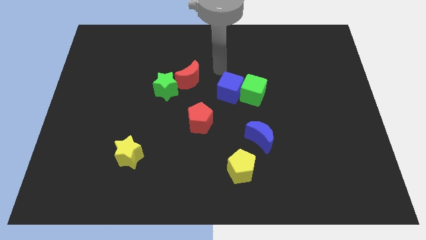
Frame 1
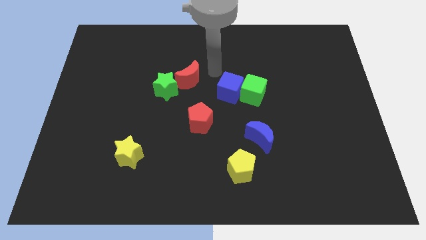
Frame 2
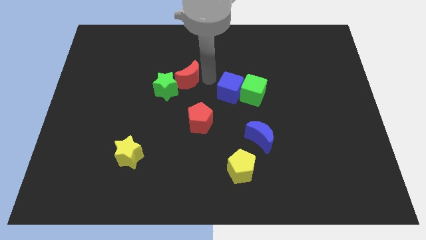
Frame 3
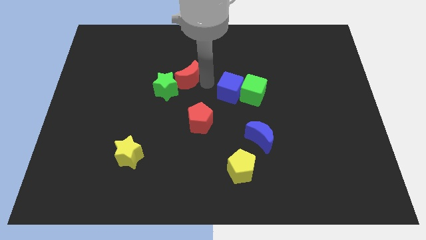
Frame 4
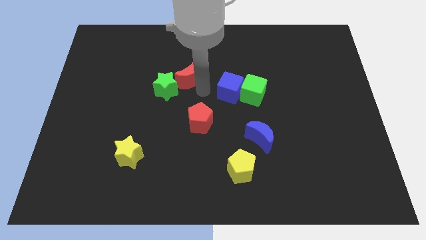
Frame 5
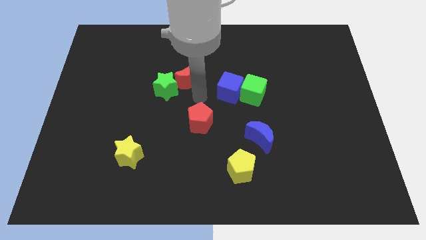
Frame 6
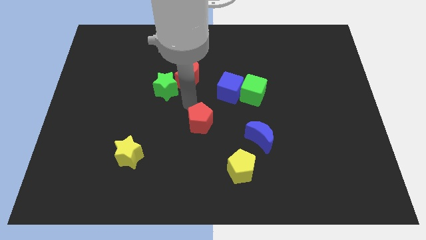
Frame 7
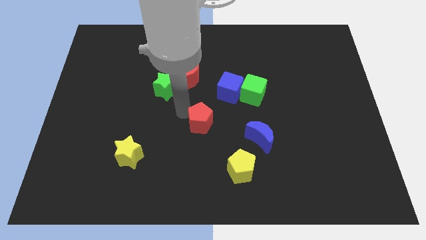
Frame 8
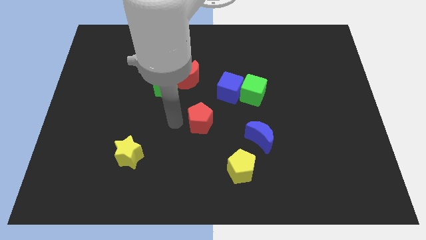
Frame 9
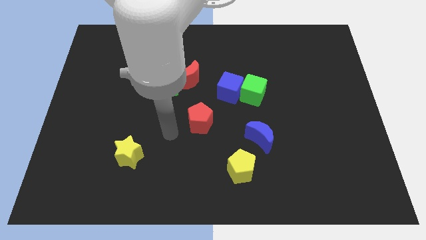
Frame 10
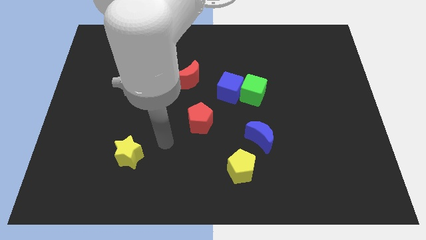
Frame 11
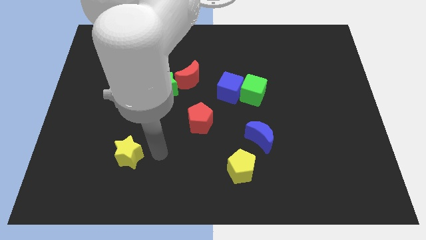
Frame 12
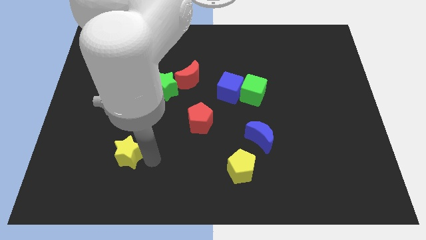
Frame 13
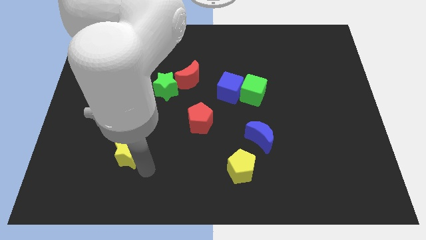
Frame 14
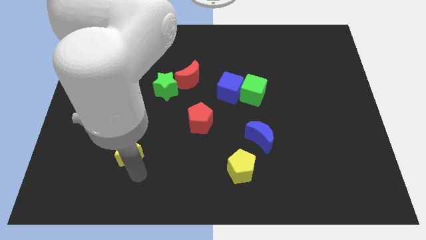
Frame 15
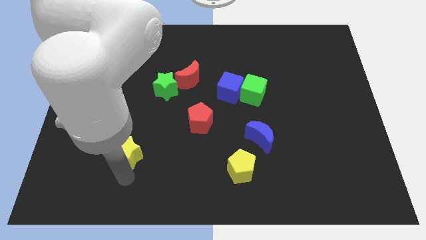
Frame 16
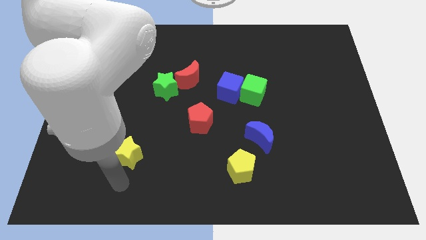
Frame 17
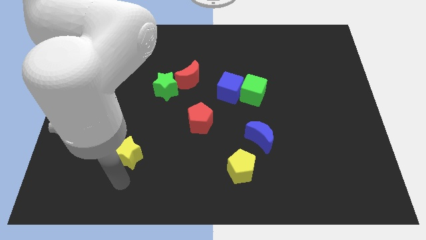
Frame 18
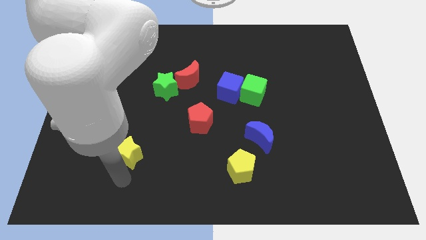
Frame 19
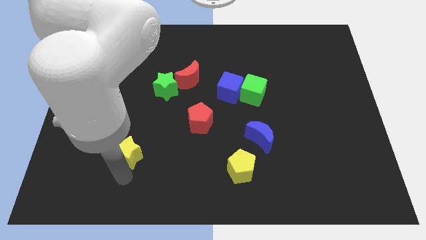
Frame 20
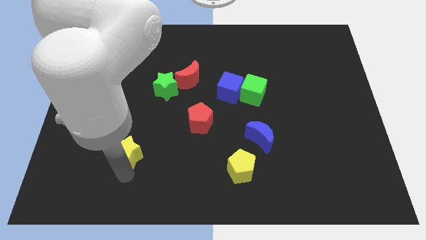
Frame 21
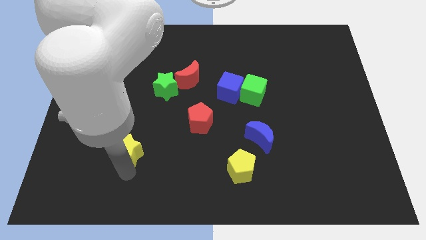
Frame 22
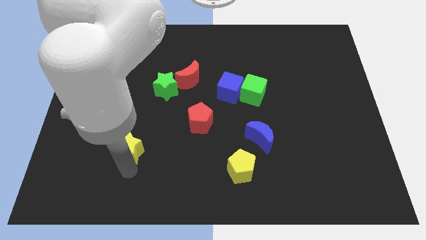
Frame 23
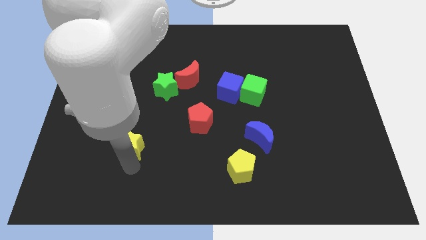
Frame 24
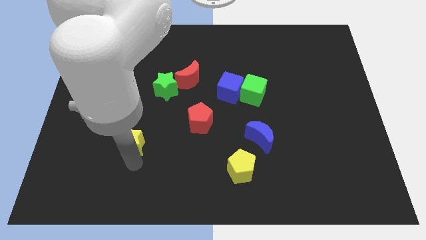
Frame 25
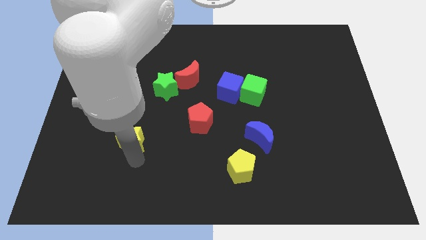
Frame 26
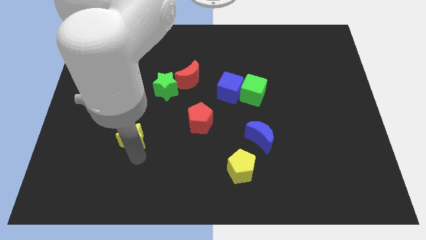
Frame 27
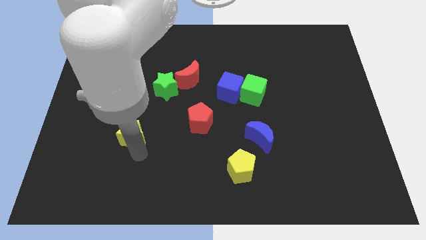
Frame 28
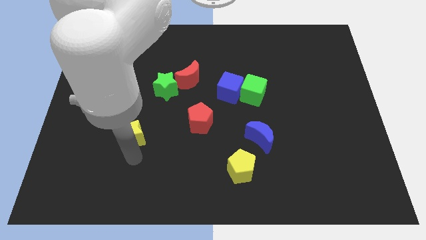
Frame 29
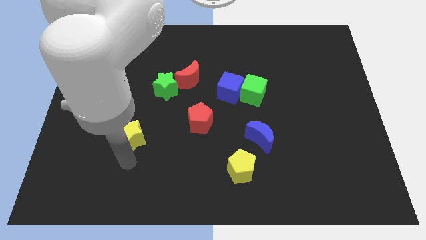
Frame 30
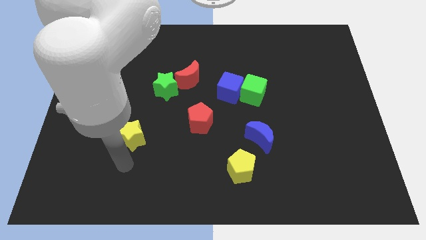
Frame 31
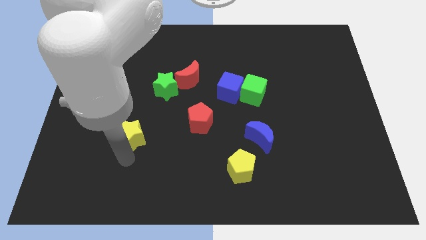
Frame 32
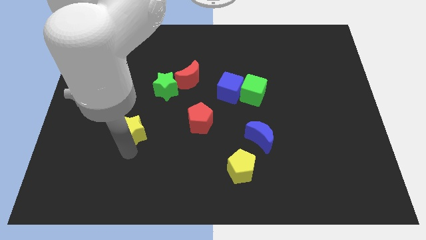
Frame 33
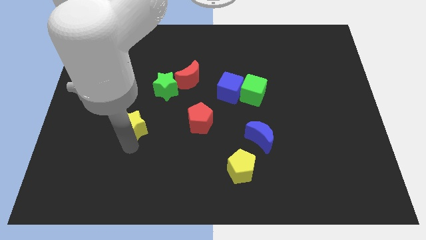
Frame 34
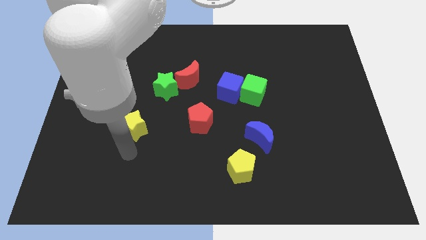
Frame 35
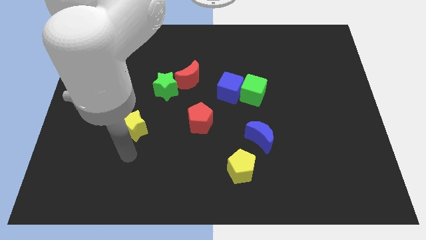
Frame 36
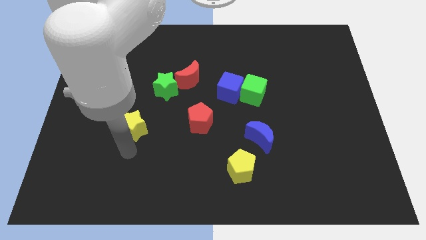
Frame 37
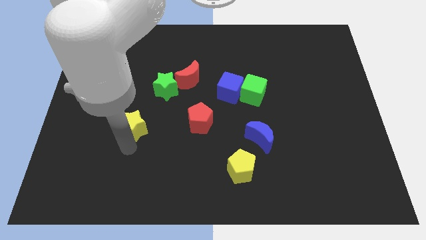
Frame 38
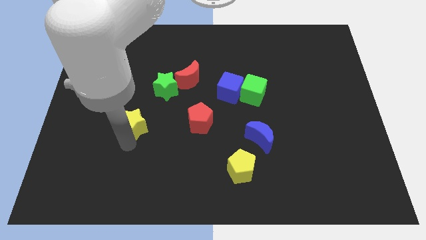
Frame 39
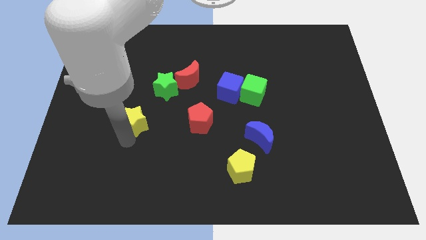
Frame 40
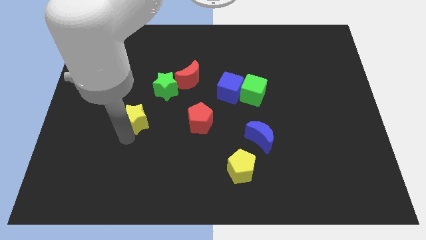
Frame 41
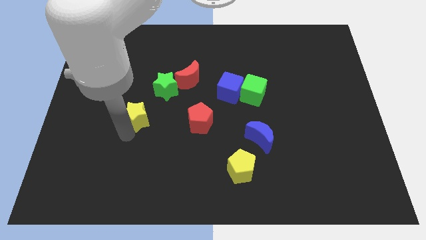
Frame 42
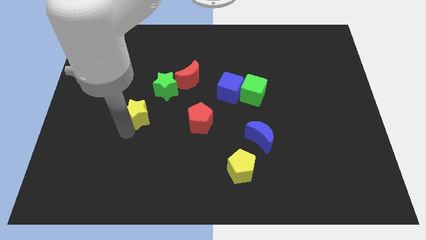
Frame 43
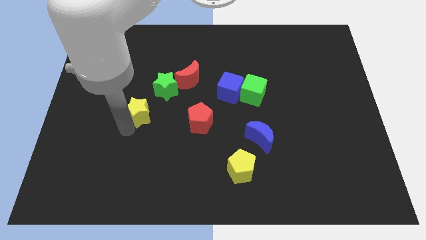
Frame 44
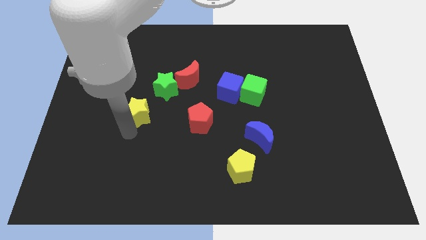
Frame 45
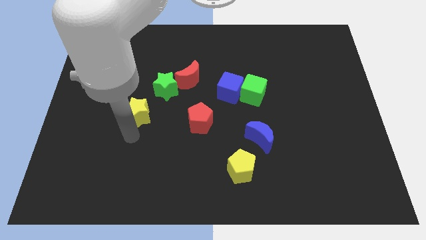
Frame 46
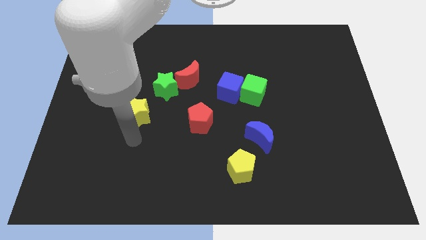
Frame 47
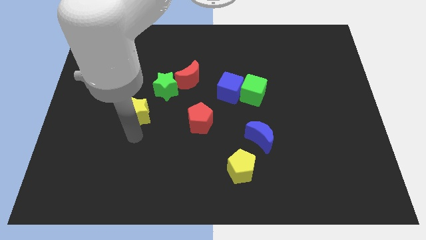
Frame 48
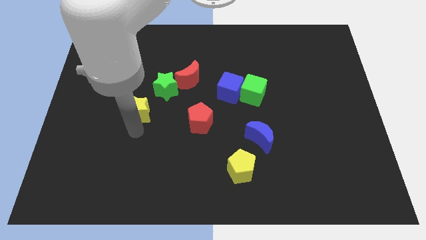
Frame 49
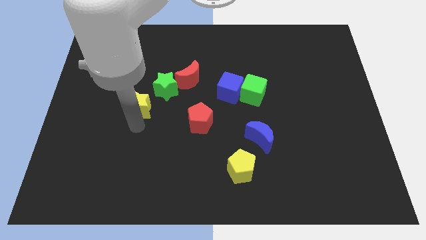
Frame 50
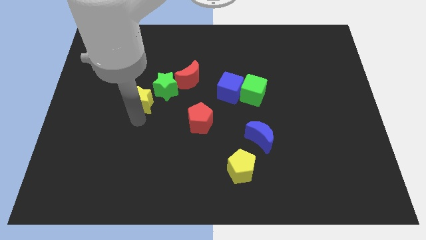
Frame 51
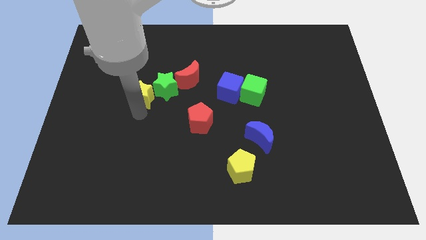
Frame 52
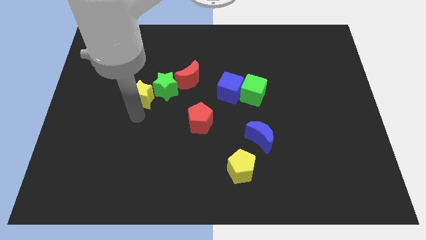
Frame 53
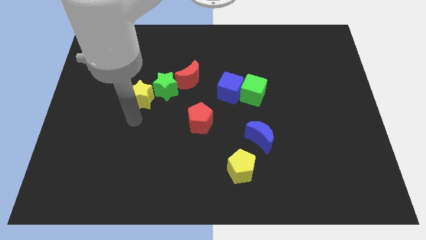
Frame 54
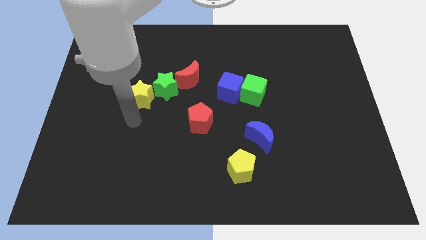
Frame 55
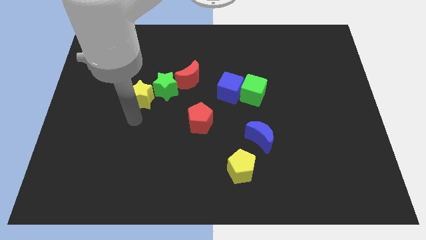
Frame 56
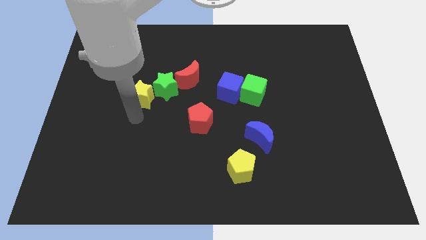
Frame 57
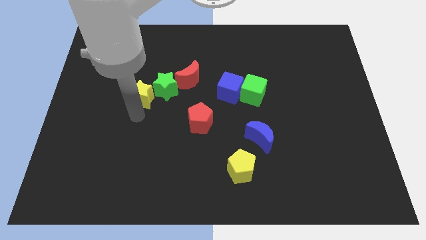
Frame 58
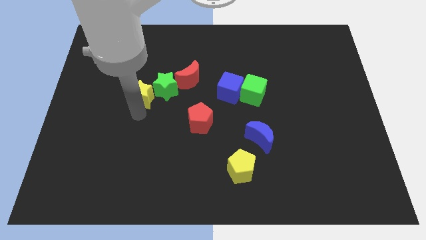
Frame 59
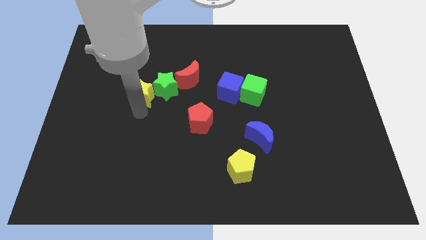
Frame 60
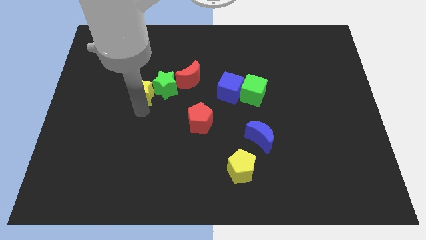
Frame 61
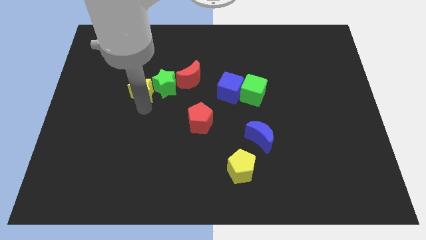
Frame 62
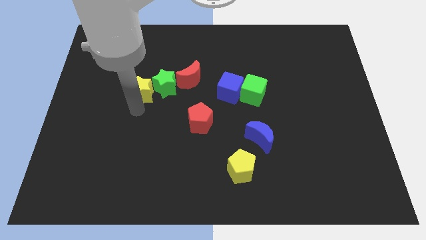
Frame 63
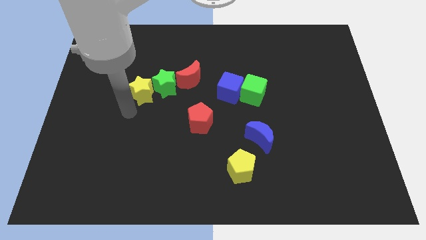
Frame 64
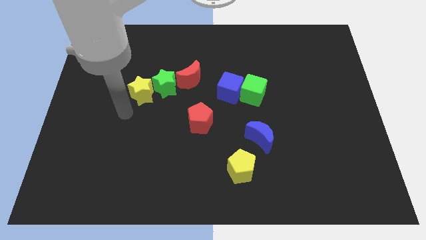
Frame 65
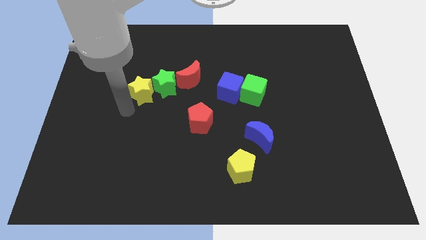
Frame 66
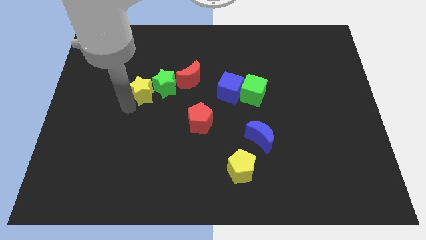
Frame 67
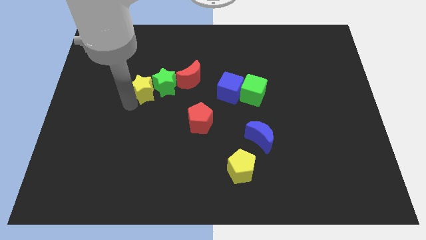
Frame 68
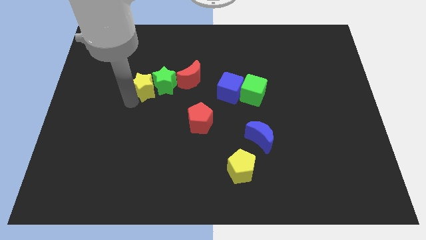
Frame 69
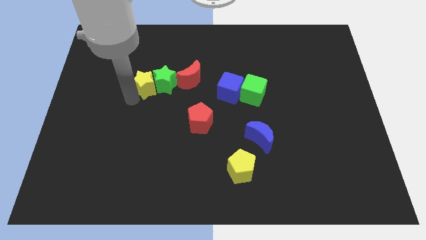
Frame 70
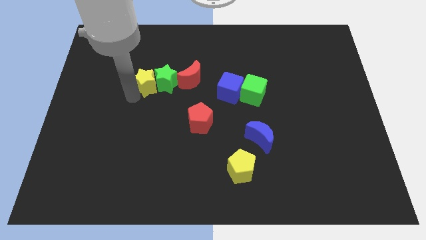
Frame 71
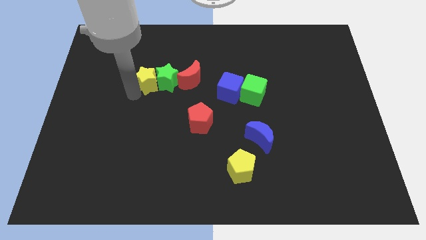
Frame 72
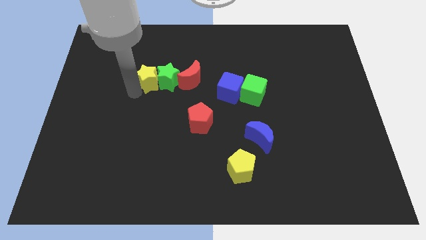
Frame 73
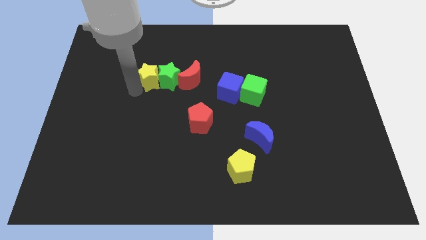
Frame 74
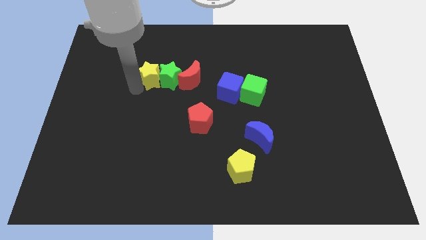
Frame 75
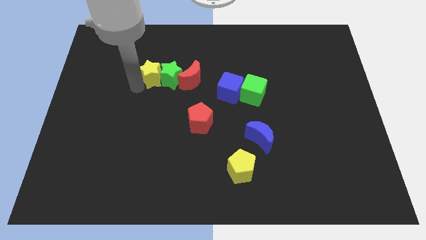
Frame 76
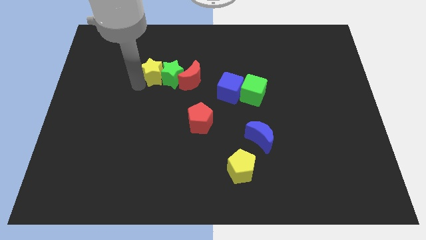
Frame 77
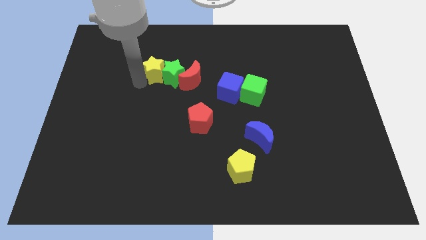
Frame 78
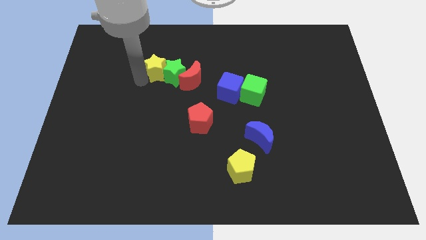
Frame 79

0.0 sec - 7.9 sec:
put the yellow star diagonally up and to the left of the red moon

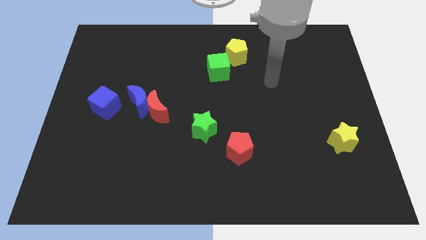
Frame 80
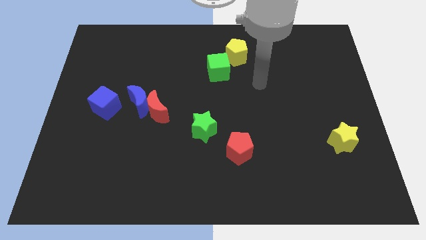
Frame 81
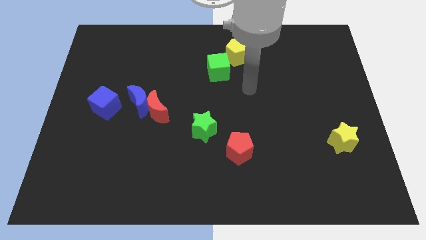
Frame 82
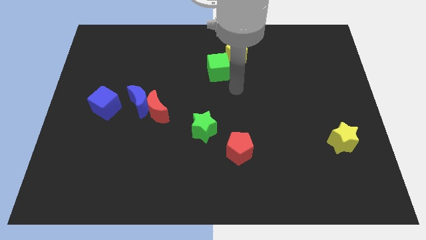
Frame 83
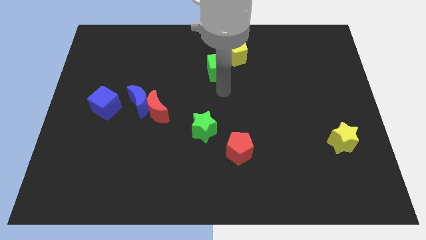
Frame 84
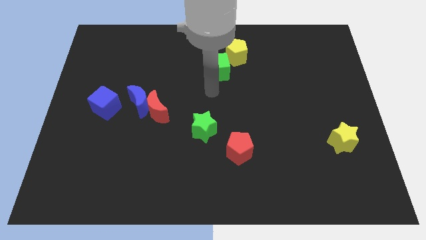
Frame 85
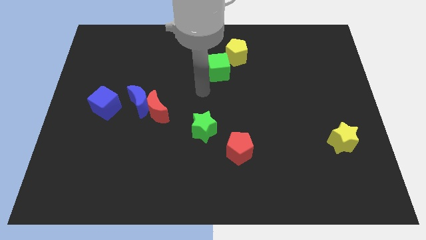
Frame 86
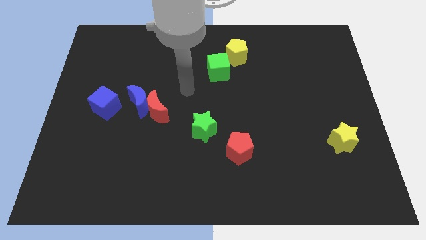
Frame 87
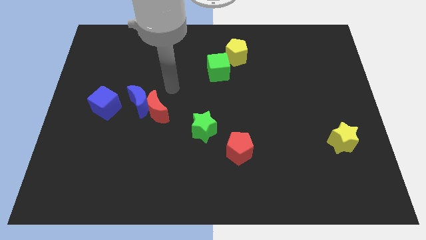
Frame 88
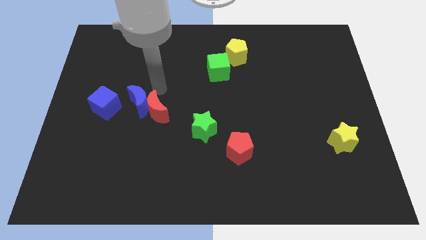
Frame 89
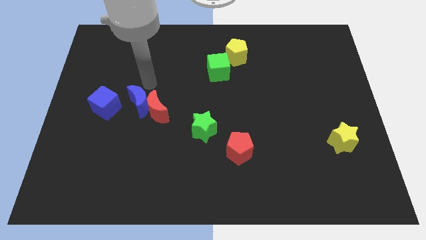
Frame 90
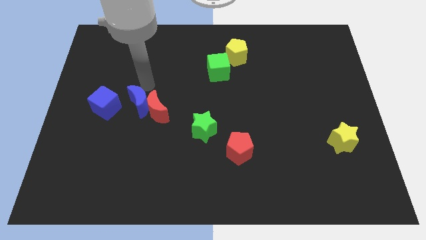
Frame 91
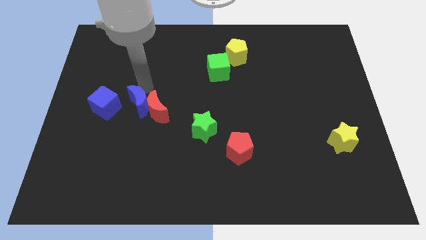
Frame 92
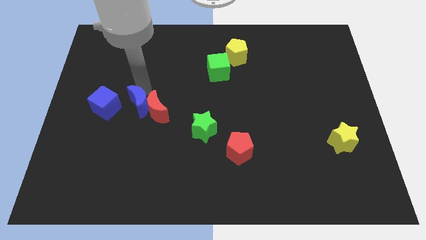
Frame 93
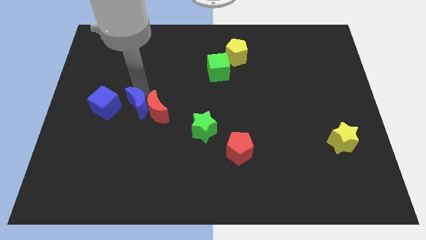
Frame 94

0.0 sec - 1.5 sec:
slide the blue moon to the bottom left side of the red moon
